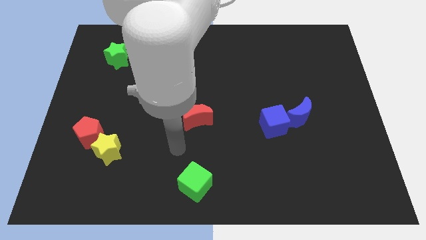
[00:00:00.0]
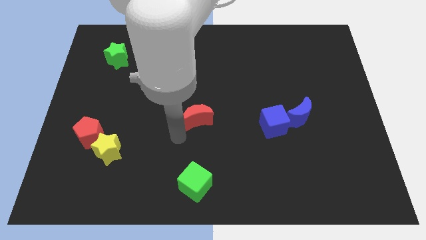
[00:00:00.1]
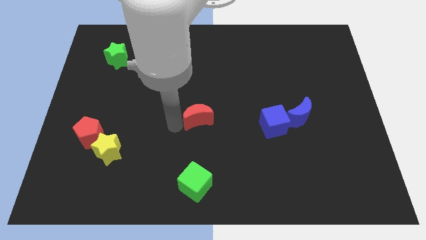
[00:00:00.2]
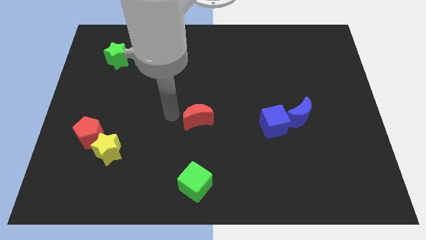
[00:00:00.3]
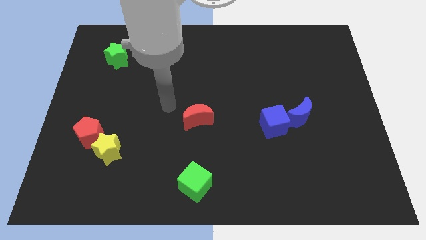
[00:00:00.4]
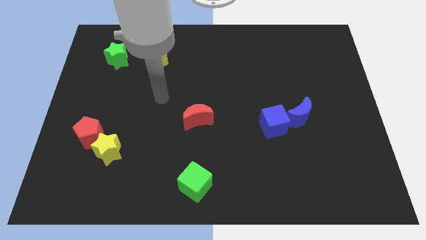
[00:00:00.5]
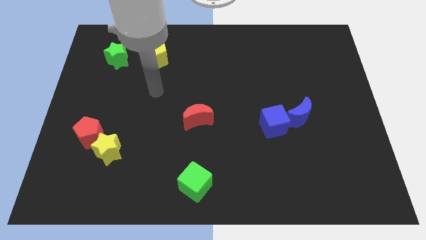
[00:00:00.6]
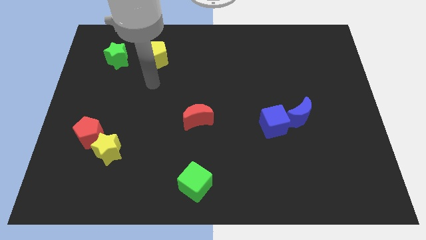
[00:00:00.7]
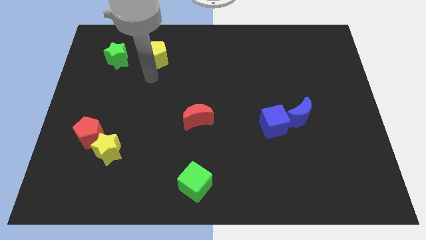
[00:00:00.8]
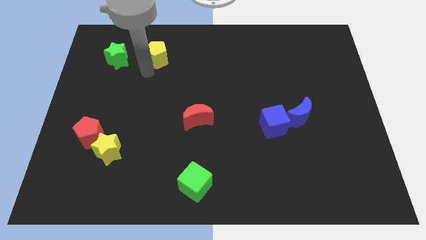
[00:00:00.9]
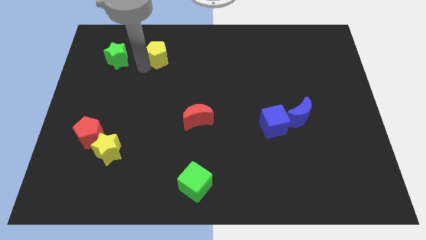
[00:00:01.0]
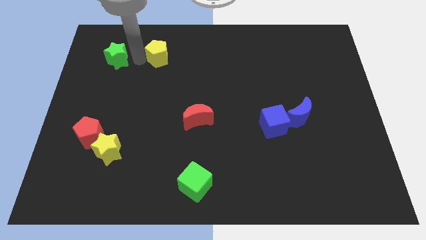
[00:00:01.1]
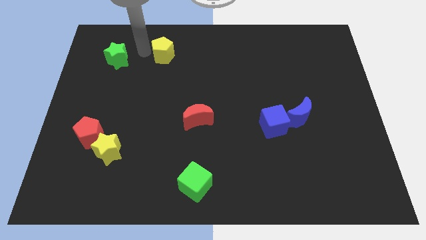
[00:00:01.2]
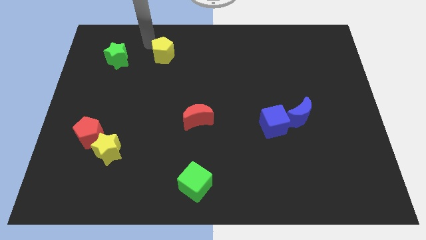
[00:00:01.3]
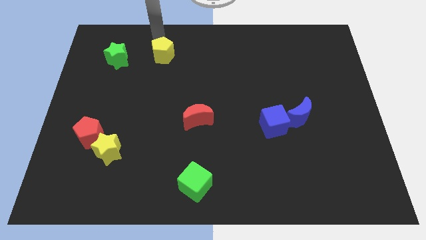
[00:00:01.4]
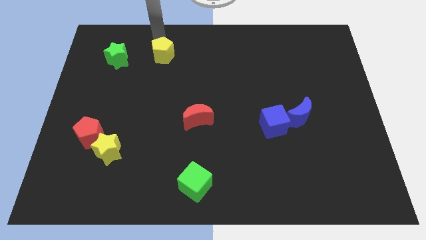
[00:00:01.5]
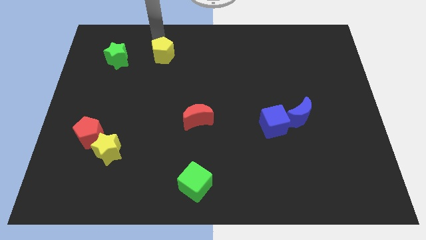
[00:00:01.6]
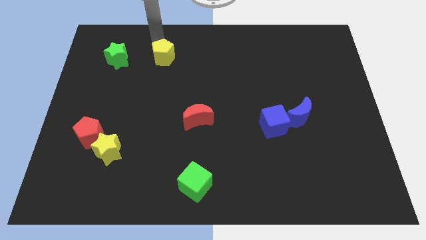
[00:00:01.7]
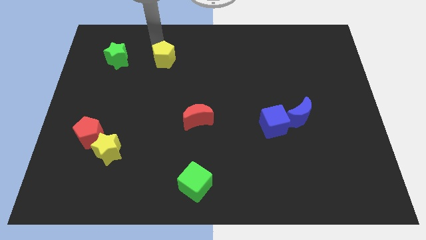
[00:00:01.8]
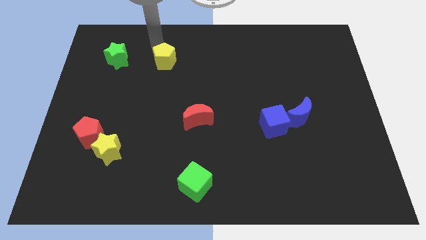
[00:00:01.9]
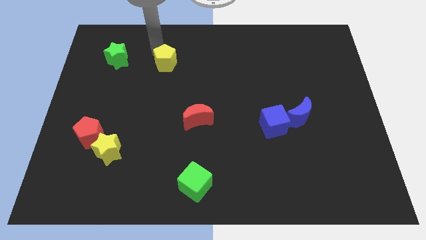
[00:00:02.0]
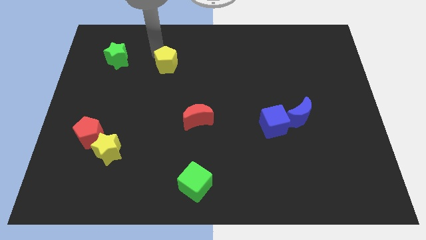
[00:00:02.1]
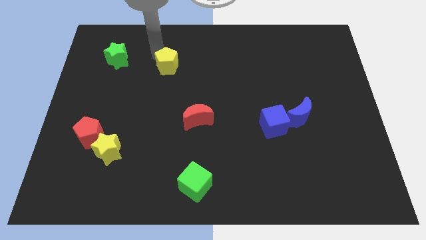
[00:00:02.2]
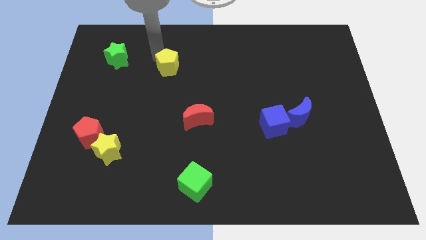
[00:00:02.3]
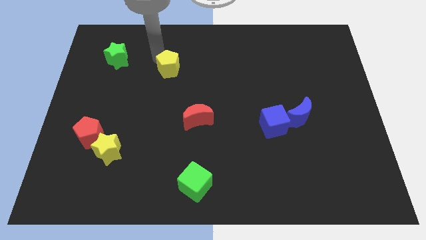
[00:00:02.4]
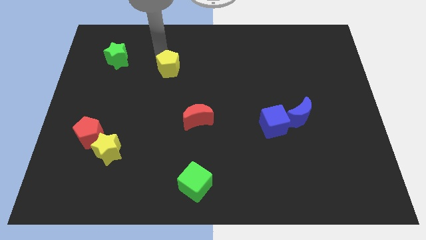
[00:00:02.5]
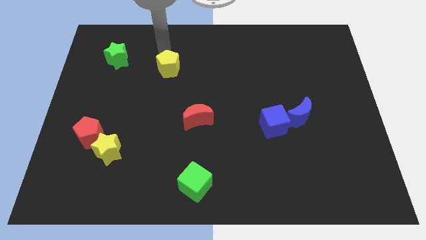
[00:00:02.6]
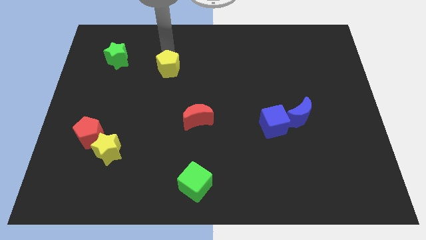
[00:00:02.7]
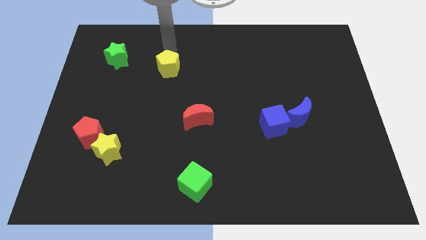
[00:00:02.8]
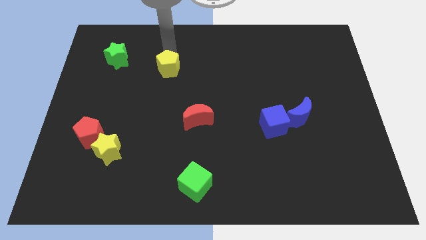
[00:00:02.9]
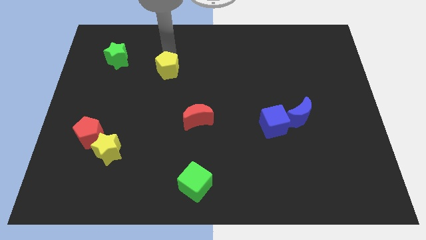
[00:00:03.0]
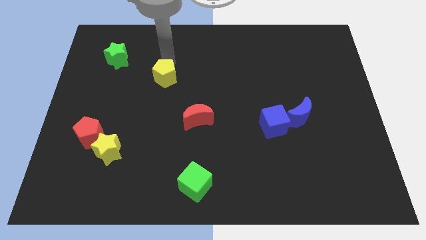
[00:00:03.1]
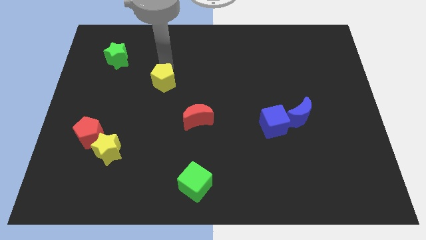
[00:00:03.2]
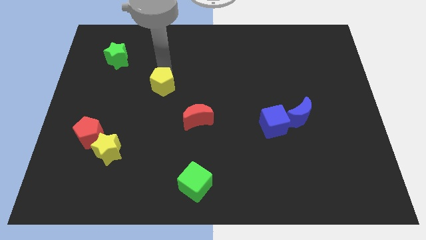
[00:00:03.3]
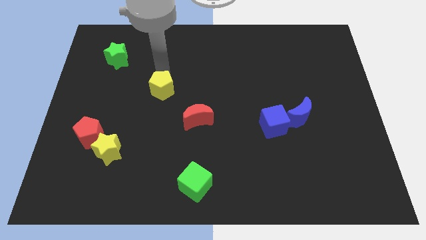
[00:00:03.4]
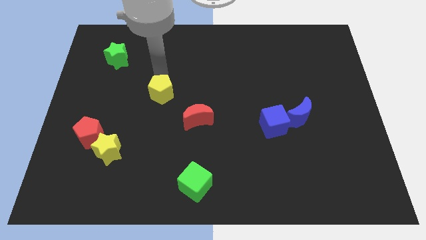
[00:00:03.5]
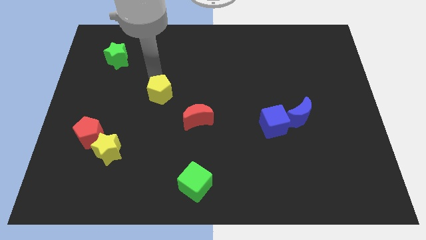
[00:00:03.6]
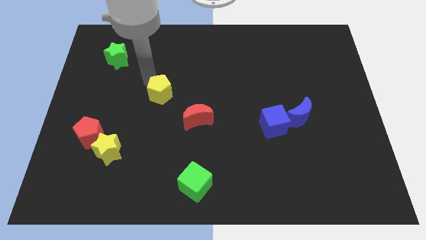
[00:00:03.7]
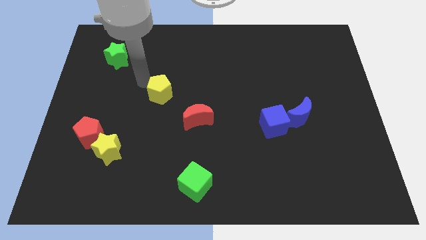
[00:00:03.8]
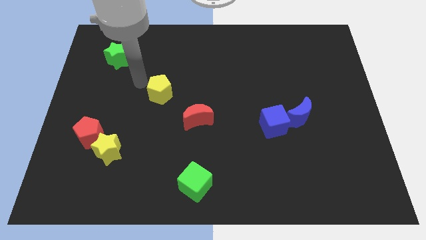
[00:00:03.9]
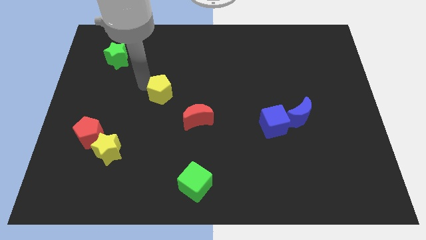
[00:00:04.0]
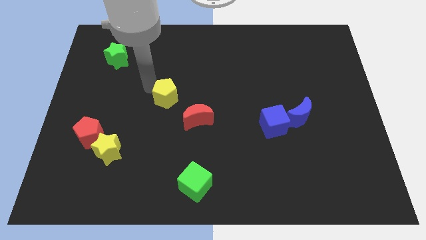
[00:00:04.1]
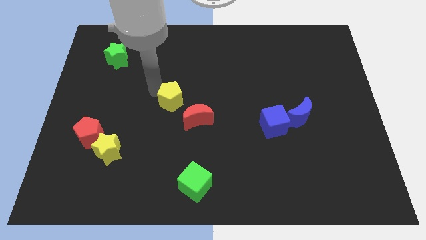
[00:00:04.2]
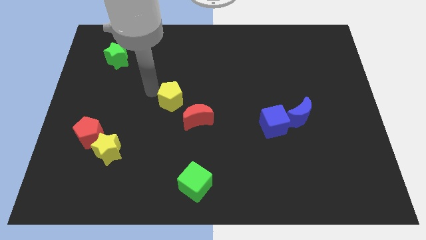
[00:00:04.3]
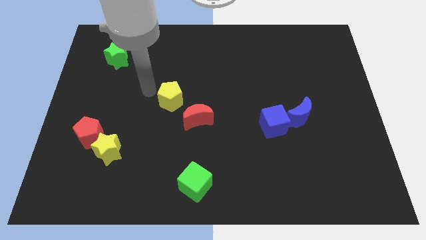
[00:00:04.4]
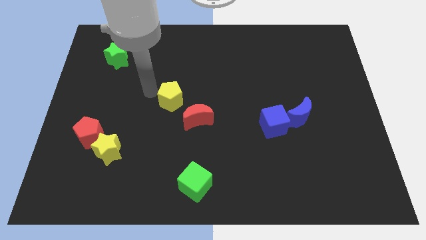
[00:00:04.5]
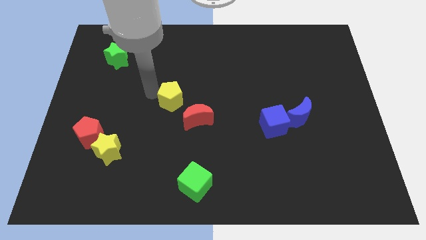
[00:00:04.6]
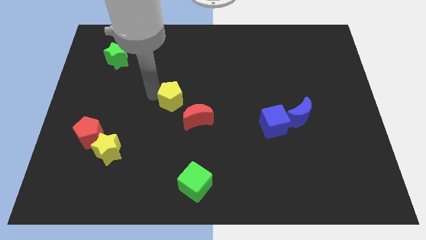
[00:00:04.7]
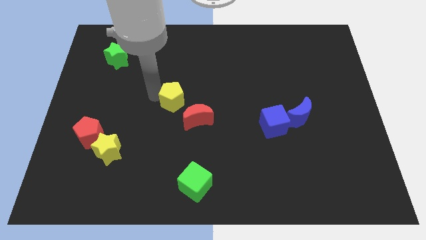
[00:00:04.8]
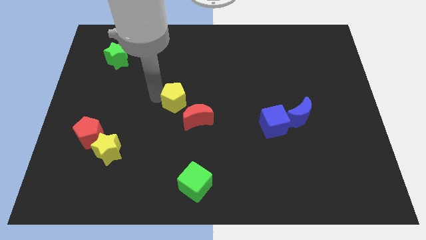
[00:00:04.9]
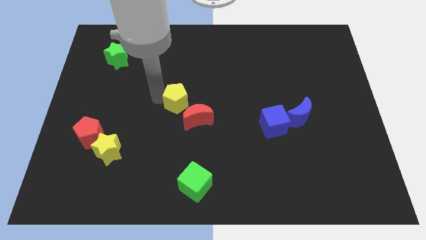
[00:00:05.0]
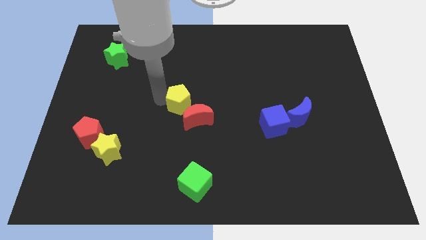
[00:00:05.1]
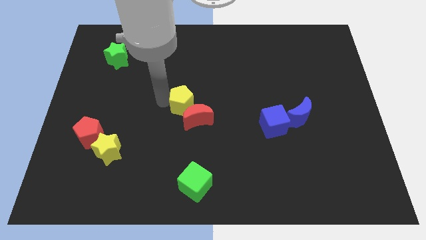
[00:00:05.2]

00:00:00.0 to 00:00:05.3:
put the yellow pentagon towards the red moon
